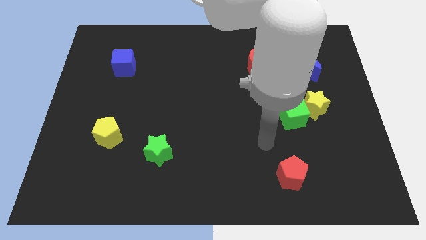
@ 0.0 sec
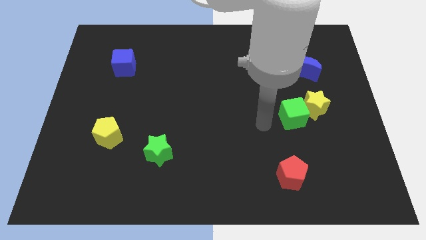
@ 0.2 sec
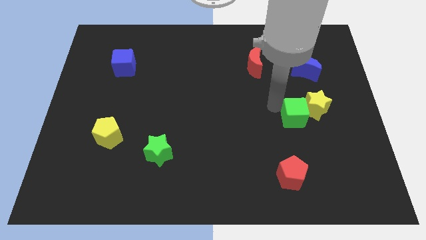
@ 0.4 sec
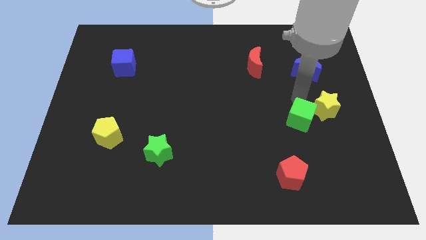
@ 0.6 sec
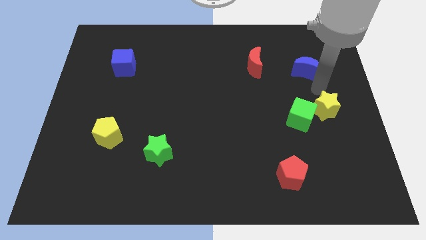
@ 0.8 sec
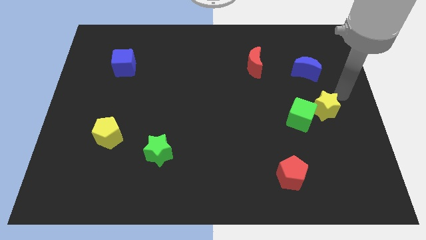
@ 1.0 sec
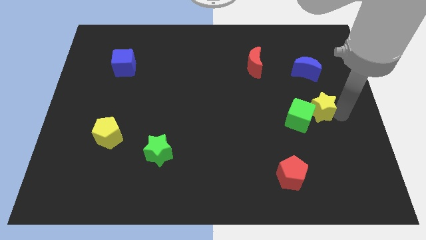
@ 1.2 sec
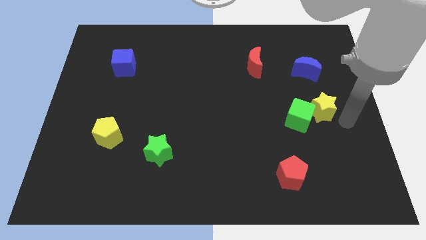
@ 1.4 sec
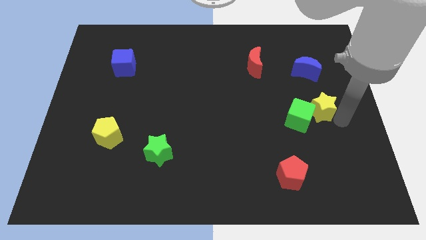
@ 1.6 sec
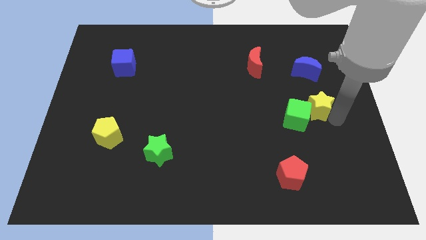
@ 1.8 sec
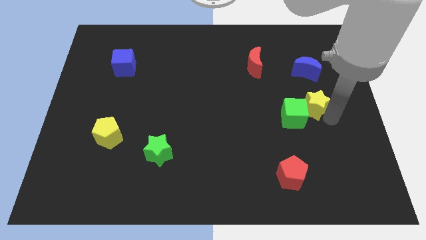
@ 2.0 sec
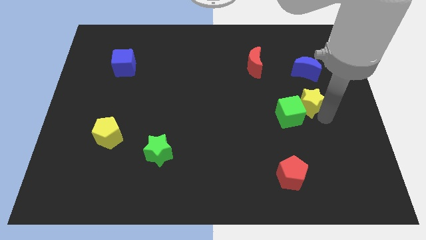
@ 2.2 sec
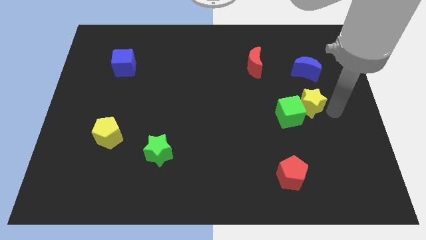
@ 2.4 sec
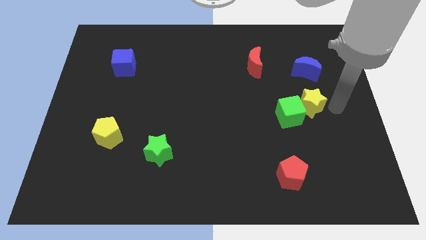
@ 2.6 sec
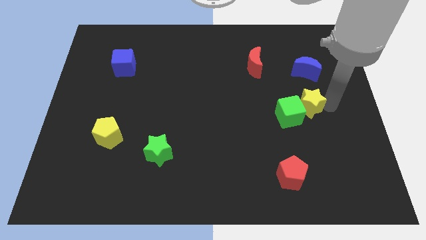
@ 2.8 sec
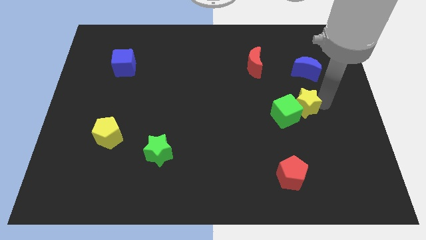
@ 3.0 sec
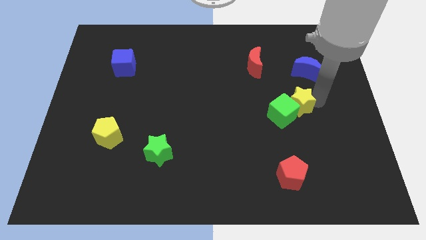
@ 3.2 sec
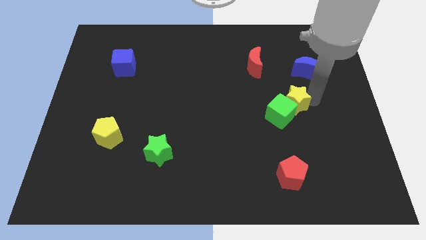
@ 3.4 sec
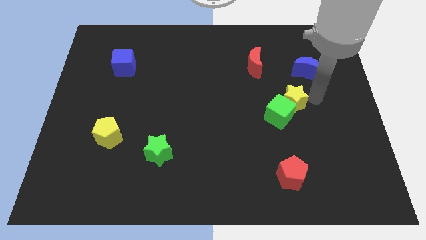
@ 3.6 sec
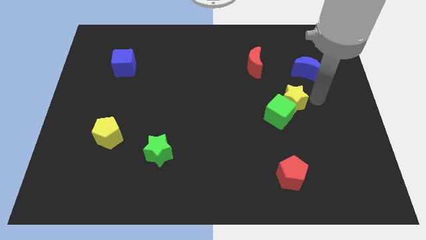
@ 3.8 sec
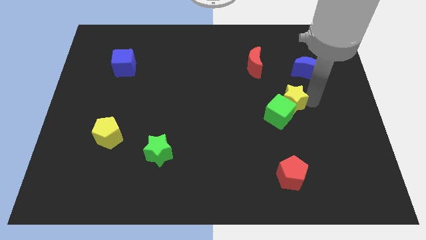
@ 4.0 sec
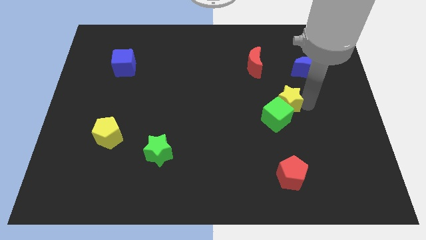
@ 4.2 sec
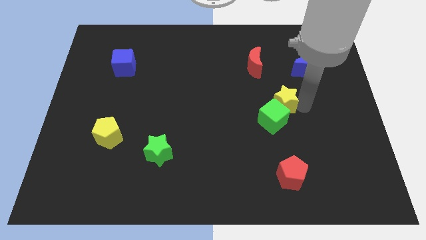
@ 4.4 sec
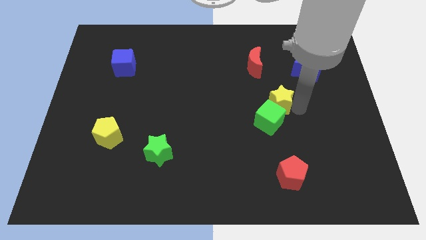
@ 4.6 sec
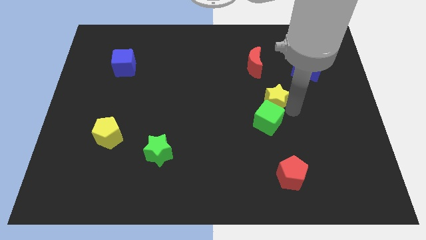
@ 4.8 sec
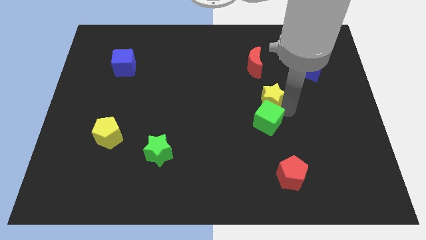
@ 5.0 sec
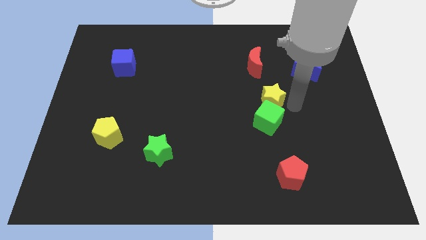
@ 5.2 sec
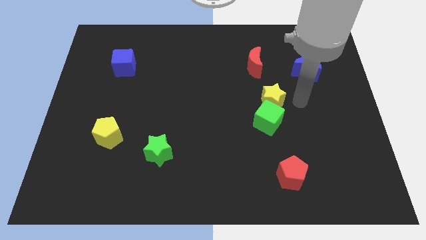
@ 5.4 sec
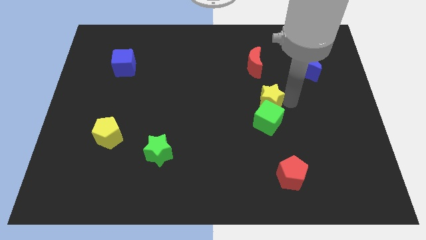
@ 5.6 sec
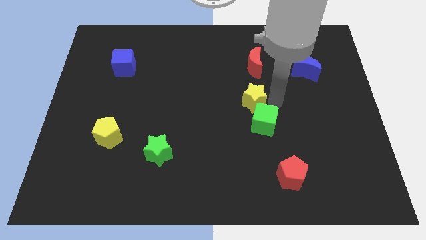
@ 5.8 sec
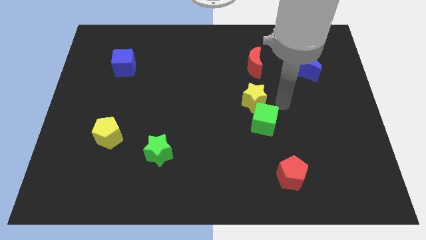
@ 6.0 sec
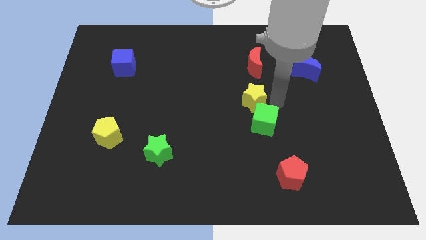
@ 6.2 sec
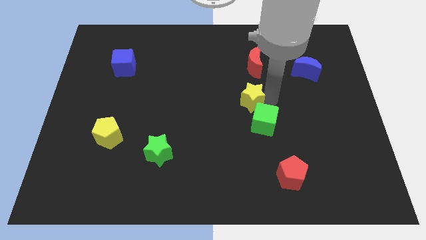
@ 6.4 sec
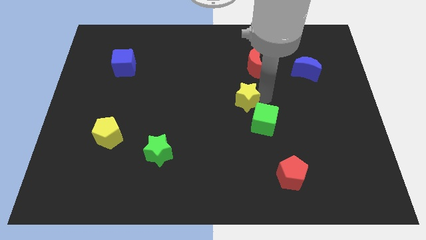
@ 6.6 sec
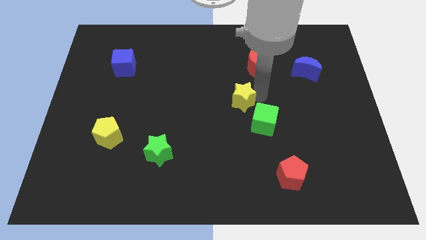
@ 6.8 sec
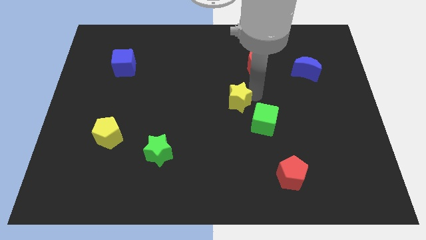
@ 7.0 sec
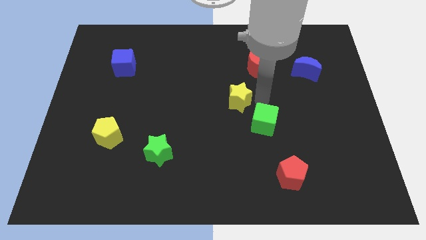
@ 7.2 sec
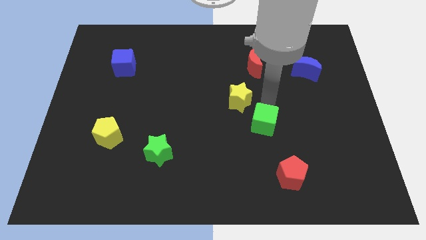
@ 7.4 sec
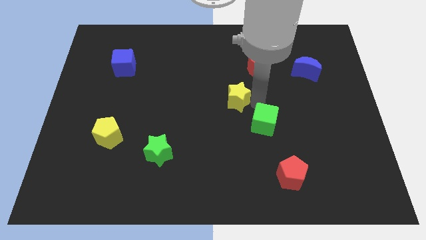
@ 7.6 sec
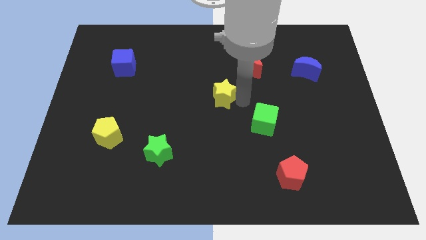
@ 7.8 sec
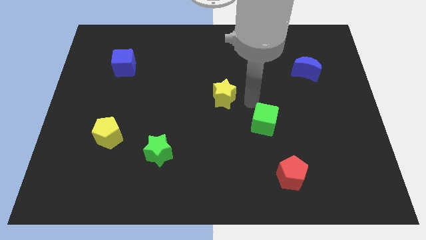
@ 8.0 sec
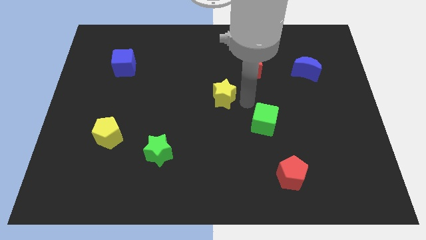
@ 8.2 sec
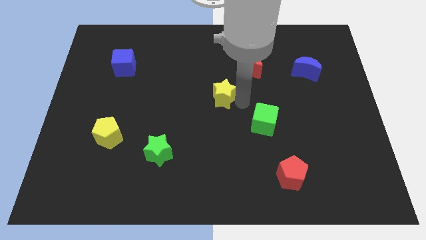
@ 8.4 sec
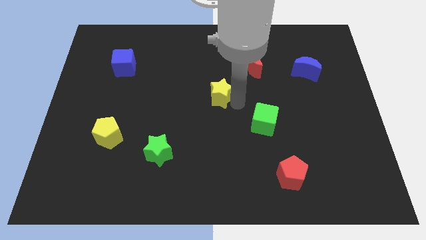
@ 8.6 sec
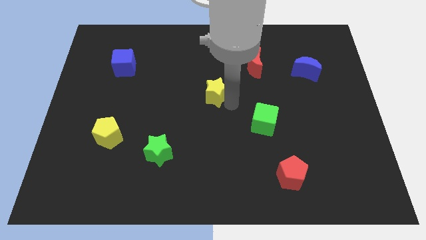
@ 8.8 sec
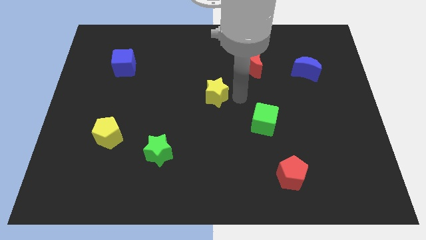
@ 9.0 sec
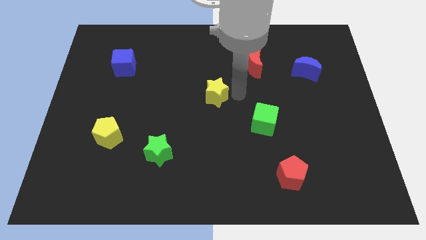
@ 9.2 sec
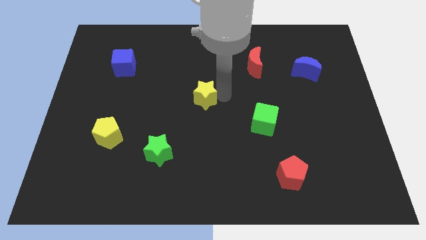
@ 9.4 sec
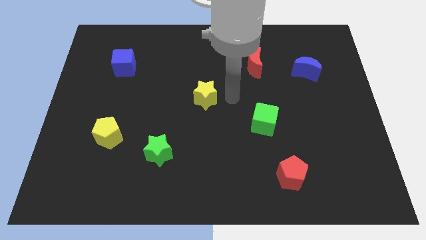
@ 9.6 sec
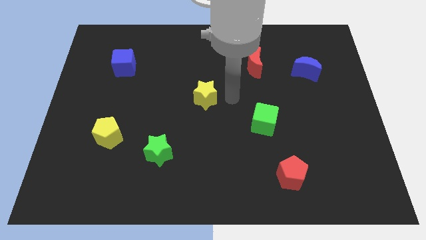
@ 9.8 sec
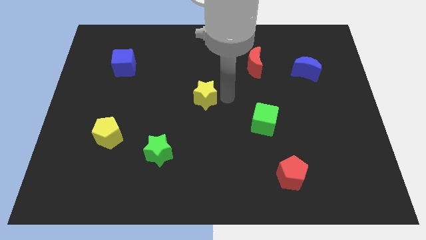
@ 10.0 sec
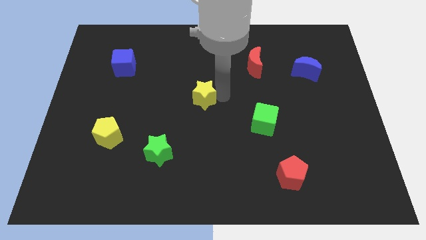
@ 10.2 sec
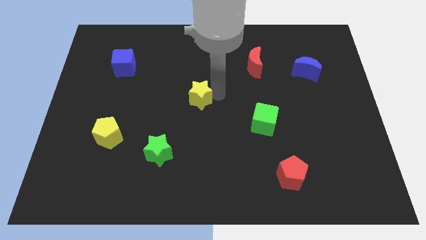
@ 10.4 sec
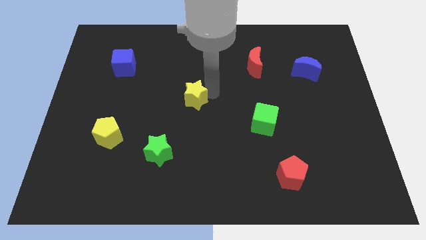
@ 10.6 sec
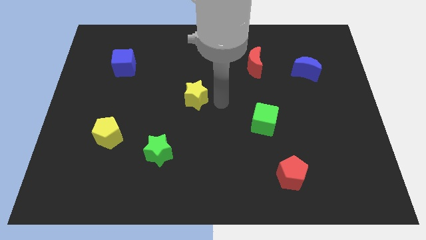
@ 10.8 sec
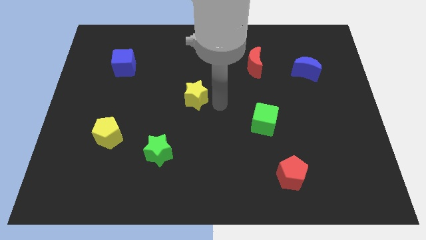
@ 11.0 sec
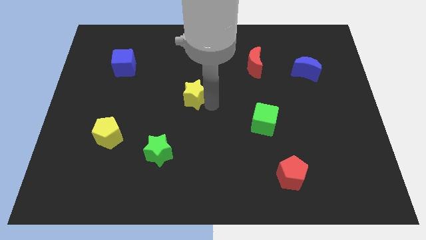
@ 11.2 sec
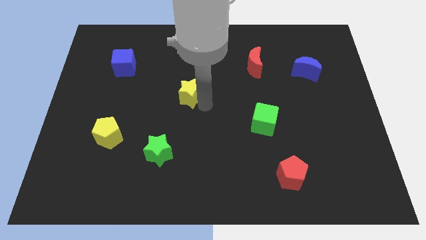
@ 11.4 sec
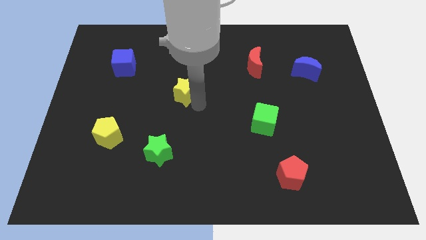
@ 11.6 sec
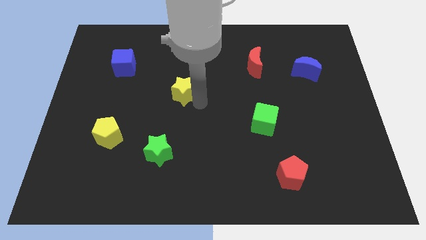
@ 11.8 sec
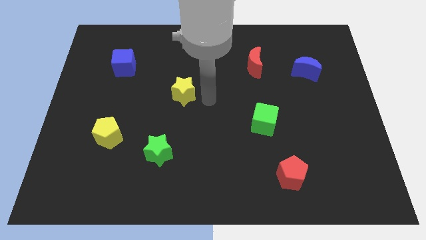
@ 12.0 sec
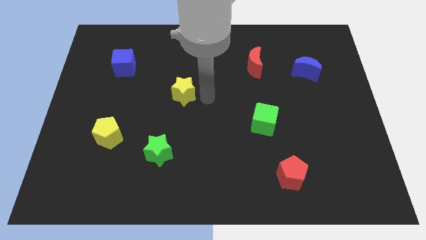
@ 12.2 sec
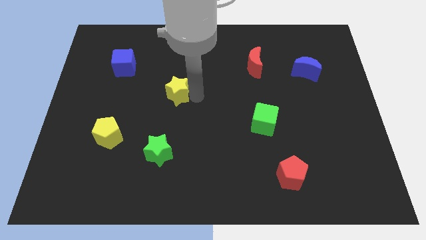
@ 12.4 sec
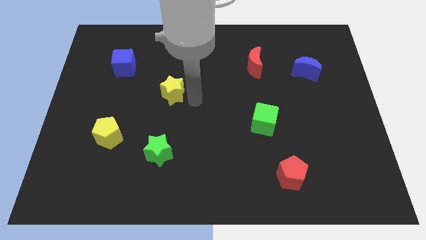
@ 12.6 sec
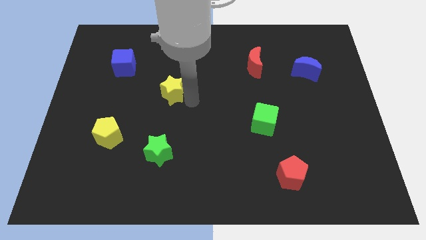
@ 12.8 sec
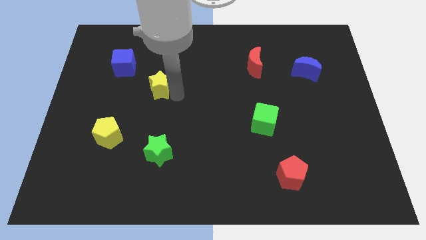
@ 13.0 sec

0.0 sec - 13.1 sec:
slide the yellow star to the bottom right side of the blue cube

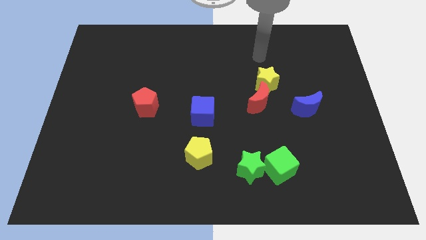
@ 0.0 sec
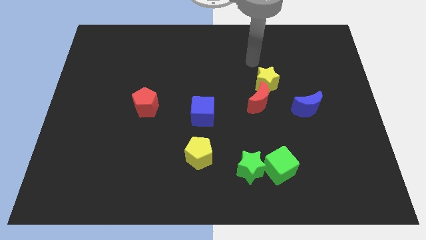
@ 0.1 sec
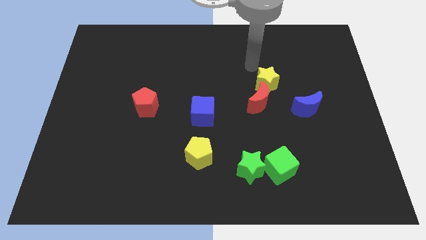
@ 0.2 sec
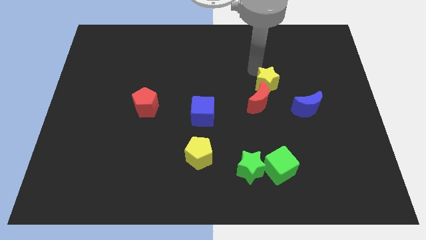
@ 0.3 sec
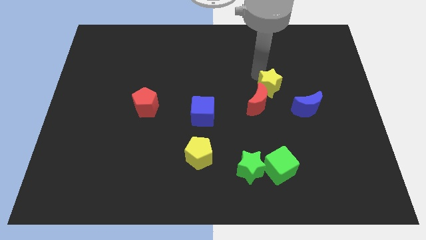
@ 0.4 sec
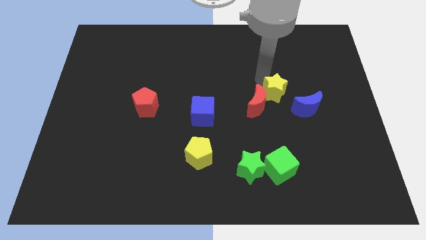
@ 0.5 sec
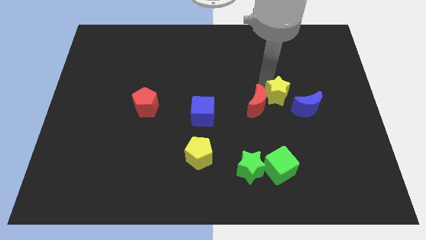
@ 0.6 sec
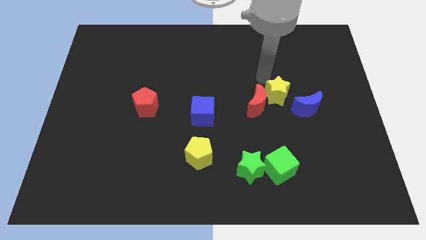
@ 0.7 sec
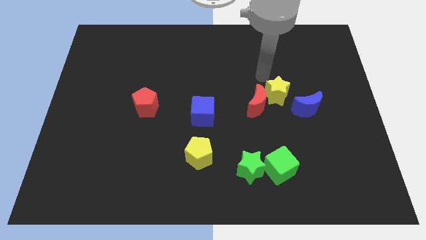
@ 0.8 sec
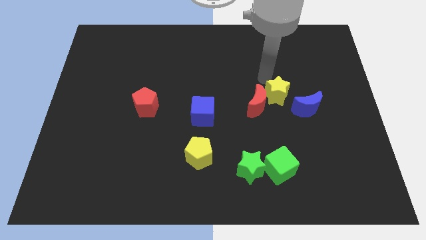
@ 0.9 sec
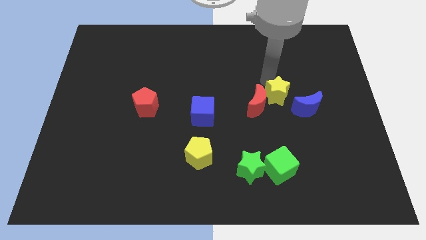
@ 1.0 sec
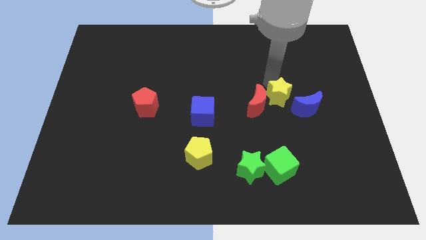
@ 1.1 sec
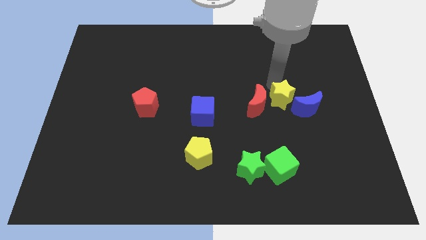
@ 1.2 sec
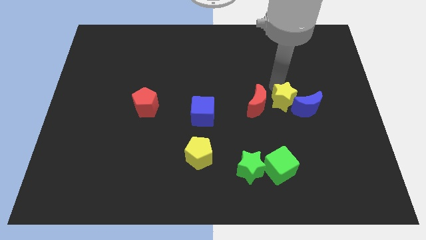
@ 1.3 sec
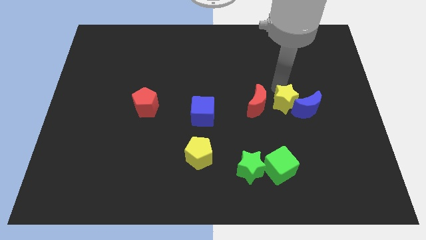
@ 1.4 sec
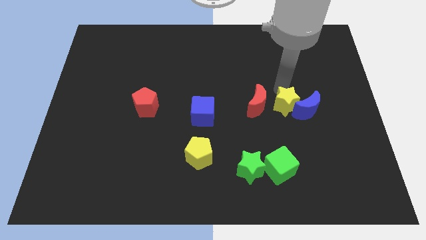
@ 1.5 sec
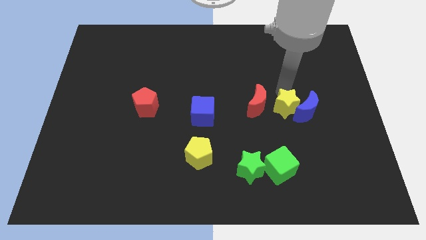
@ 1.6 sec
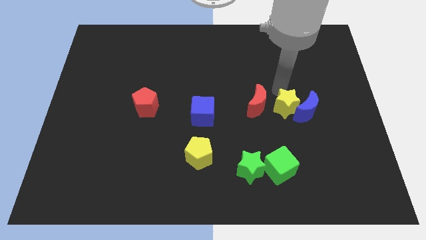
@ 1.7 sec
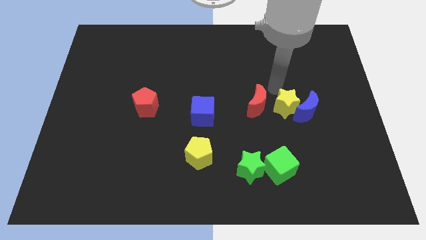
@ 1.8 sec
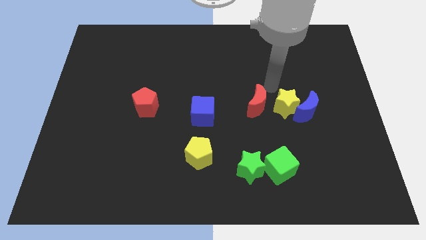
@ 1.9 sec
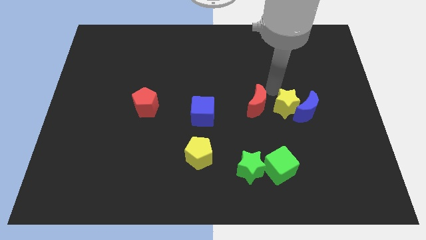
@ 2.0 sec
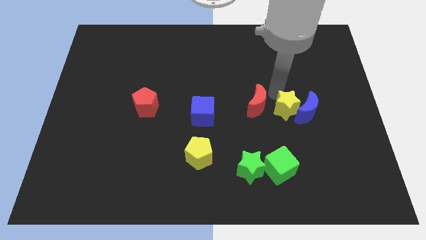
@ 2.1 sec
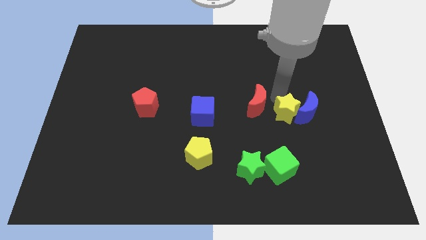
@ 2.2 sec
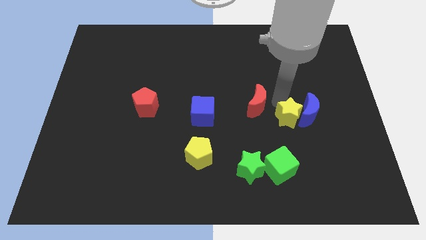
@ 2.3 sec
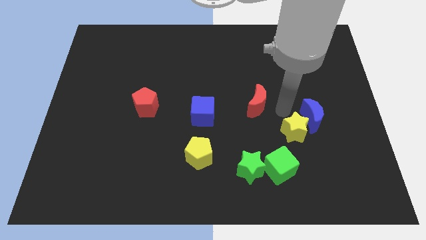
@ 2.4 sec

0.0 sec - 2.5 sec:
put the yellow star to the bottom side of the blue moon
